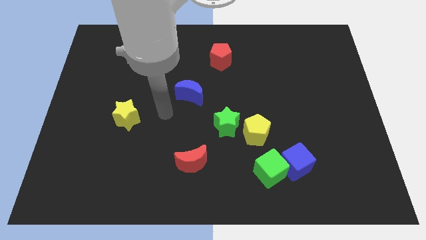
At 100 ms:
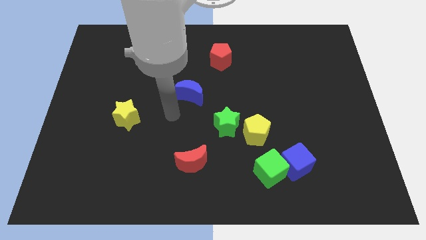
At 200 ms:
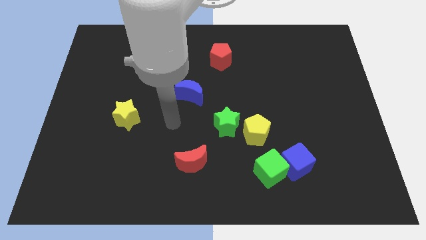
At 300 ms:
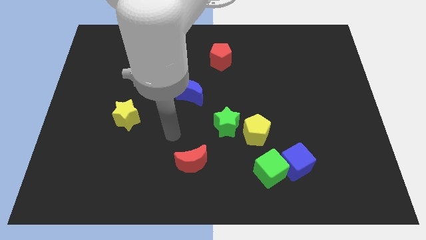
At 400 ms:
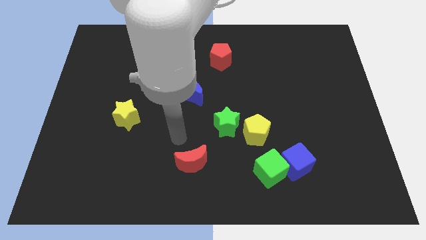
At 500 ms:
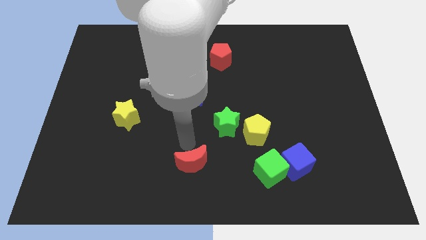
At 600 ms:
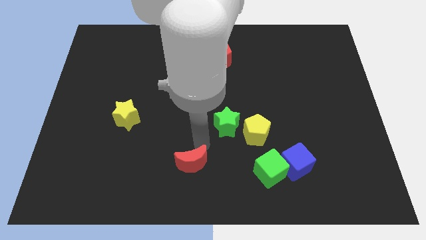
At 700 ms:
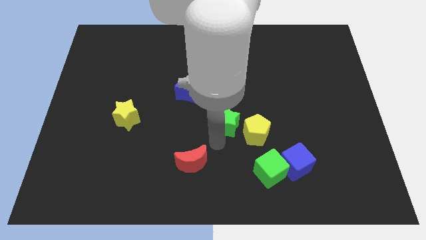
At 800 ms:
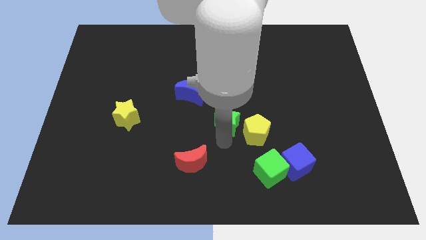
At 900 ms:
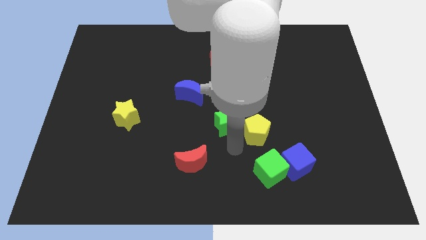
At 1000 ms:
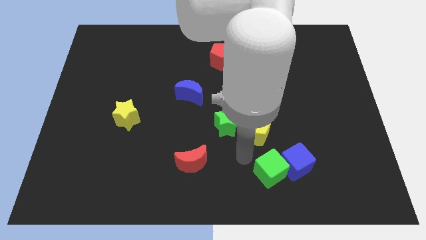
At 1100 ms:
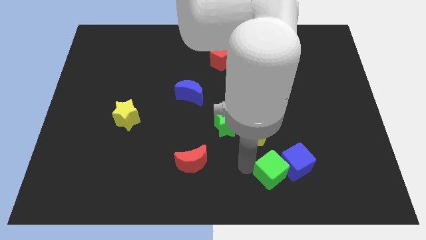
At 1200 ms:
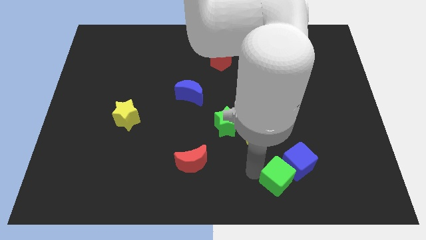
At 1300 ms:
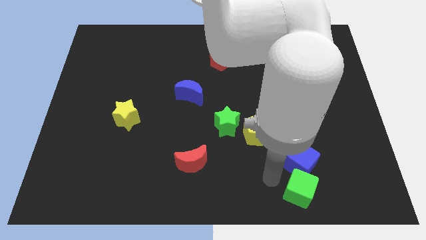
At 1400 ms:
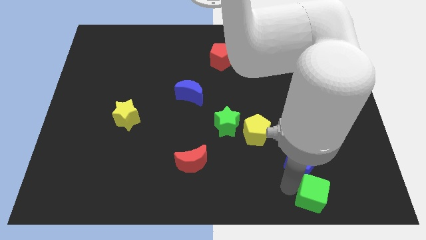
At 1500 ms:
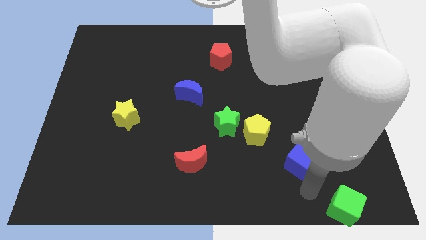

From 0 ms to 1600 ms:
pull the blue cube apart from the green cube

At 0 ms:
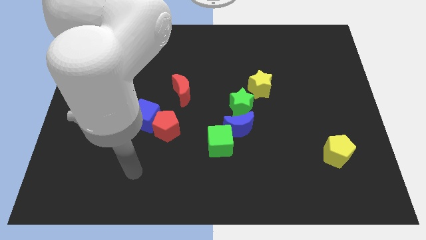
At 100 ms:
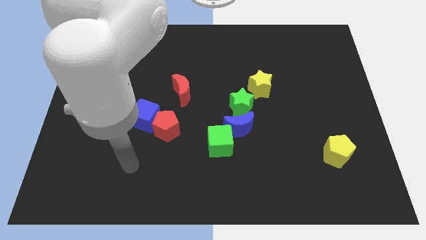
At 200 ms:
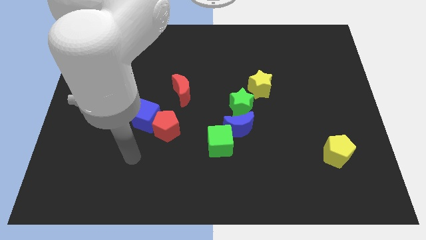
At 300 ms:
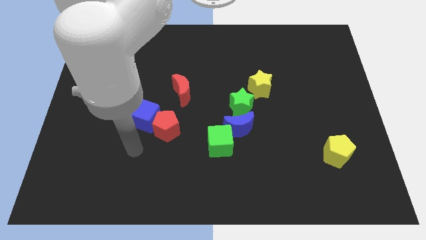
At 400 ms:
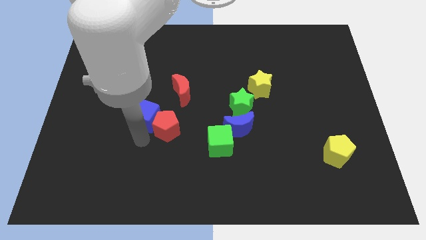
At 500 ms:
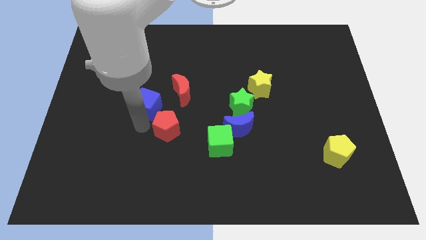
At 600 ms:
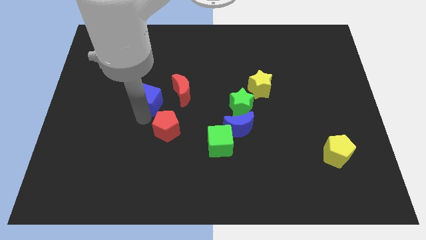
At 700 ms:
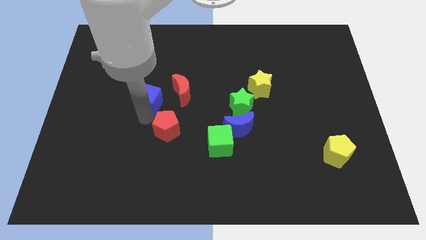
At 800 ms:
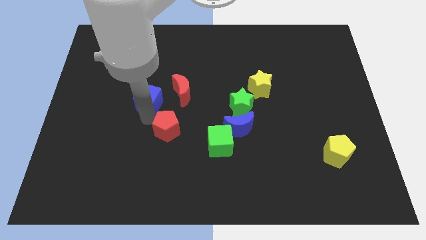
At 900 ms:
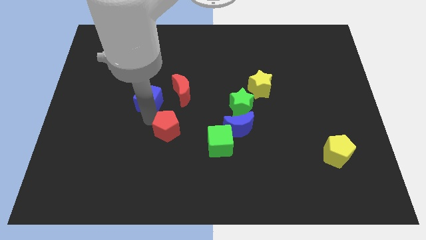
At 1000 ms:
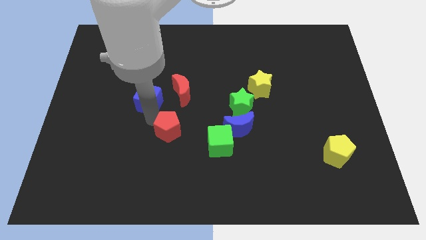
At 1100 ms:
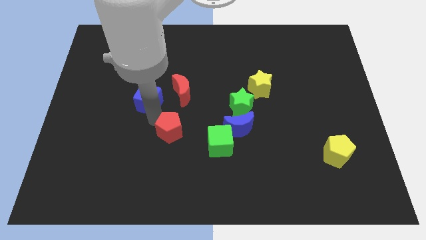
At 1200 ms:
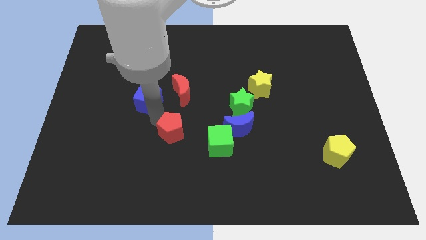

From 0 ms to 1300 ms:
pull the red pentagon apart from the blue cube

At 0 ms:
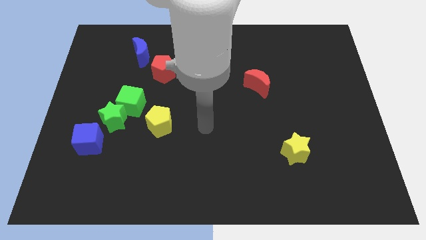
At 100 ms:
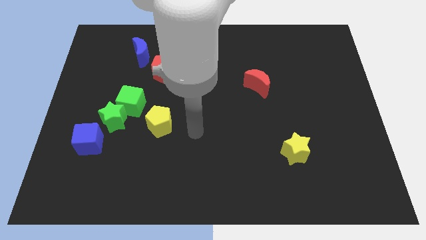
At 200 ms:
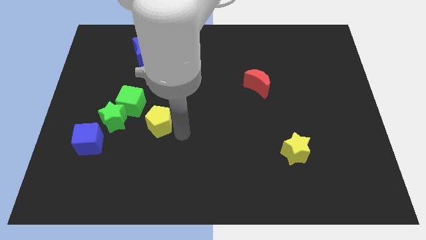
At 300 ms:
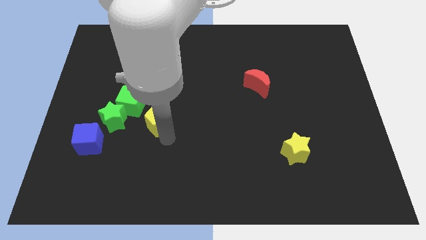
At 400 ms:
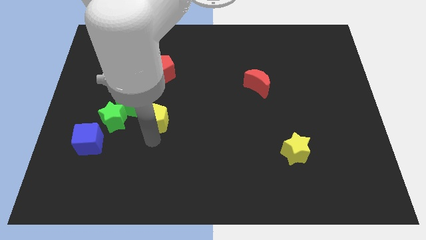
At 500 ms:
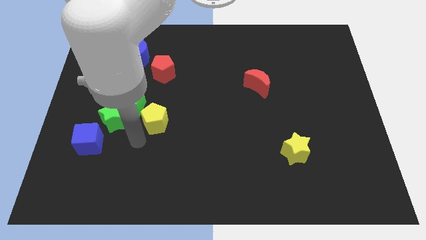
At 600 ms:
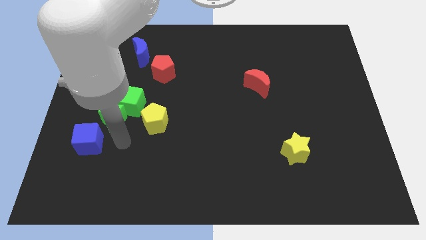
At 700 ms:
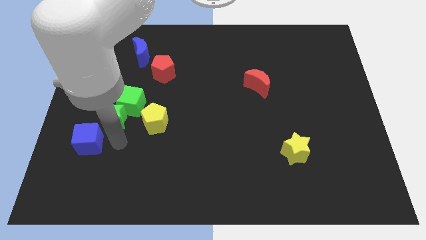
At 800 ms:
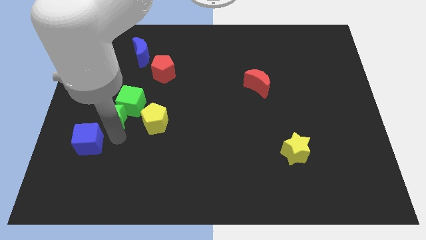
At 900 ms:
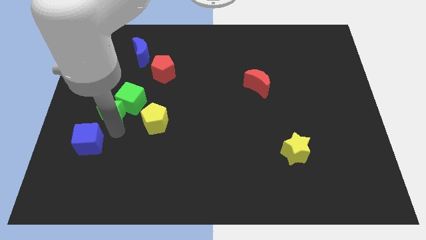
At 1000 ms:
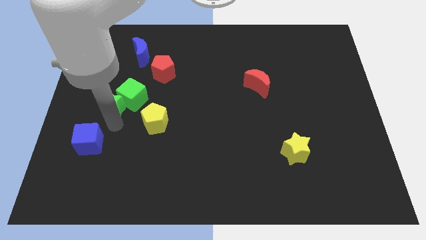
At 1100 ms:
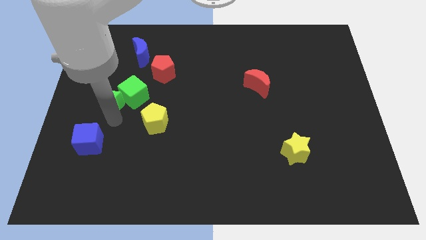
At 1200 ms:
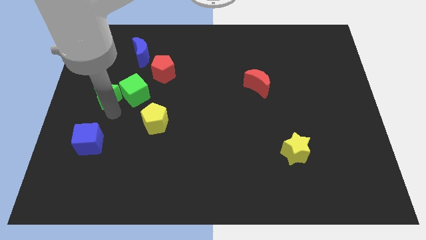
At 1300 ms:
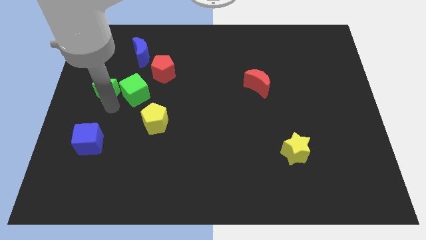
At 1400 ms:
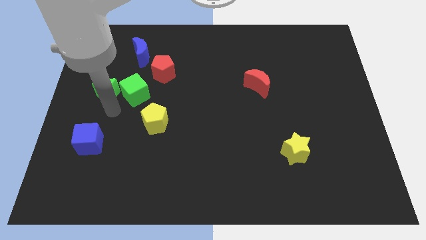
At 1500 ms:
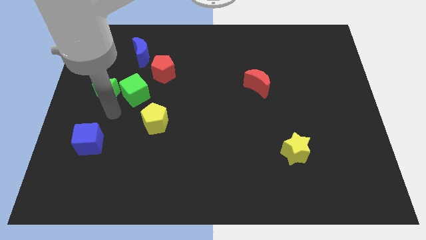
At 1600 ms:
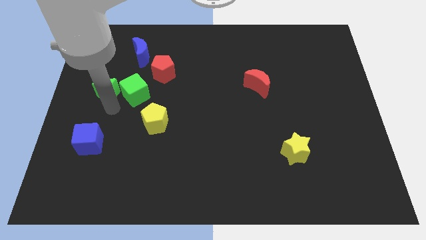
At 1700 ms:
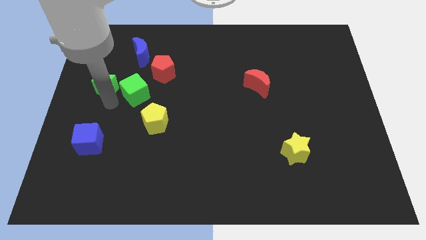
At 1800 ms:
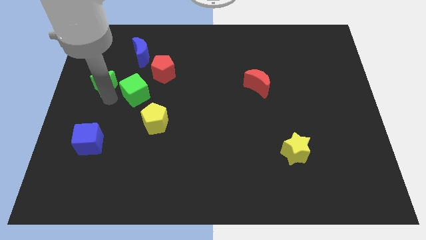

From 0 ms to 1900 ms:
move the green star away from the green cube and blue cube

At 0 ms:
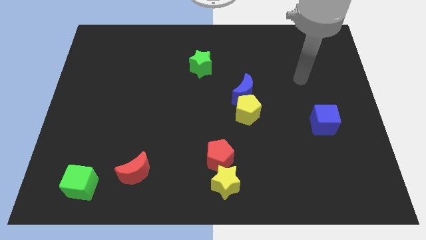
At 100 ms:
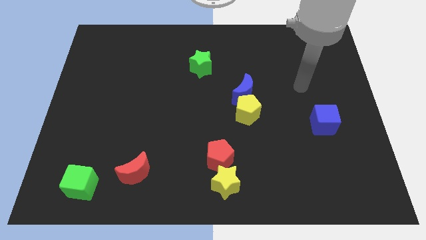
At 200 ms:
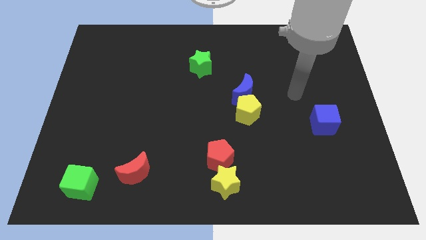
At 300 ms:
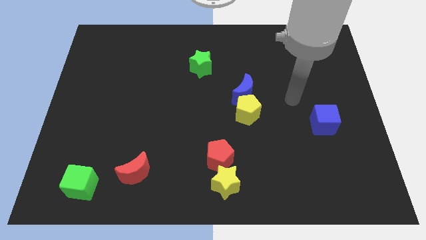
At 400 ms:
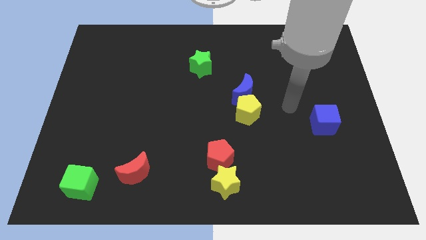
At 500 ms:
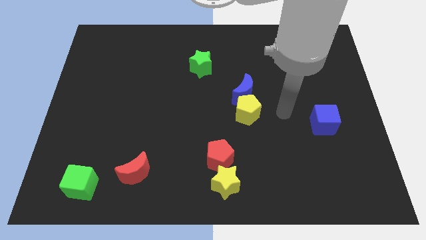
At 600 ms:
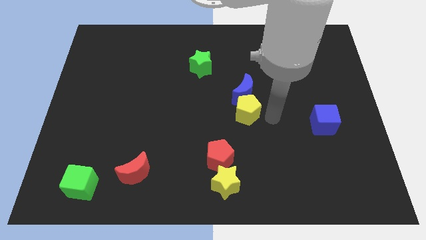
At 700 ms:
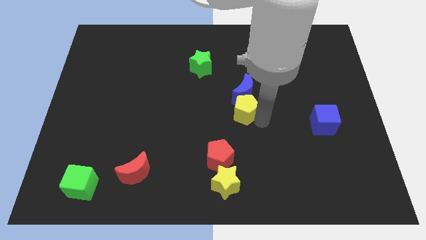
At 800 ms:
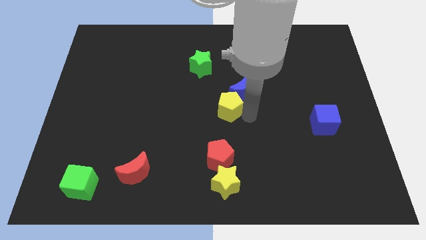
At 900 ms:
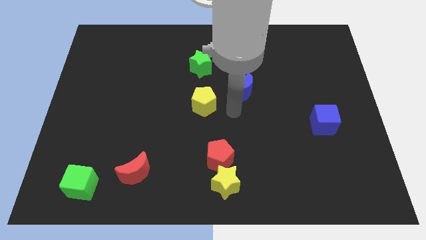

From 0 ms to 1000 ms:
separate the blue moon from the yellow pentagon

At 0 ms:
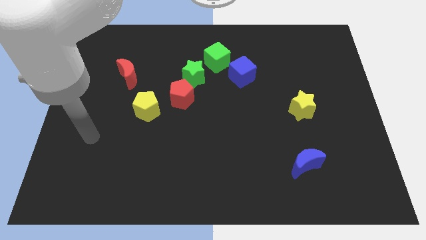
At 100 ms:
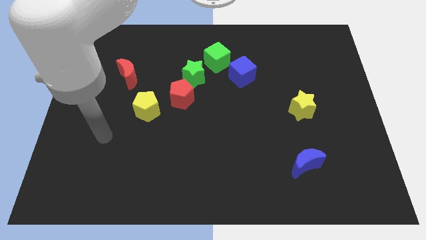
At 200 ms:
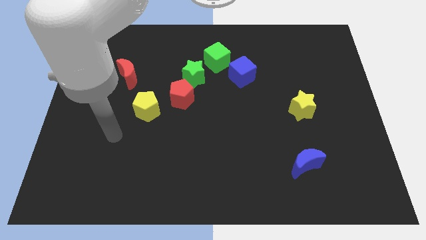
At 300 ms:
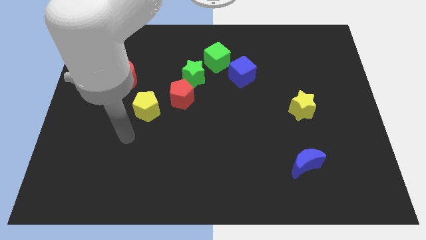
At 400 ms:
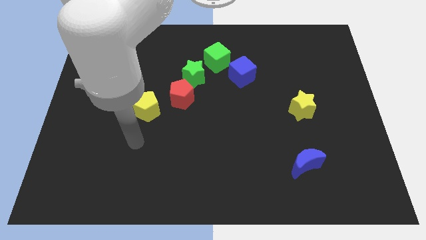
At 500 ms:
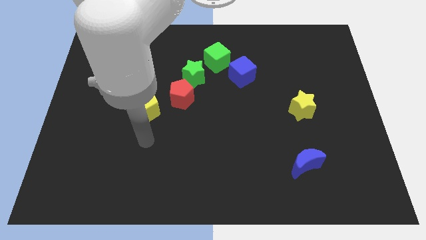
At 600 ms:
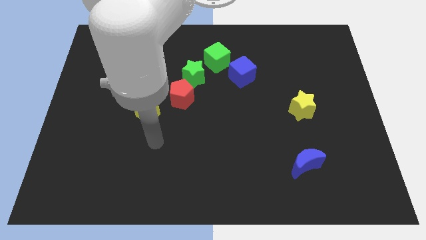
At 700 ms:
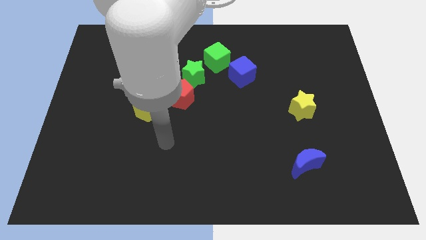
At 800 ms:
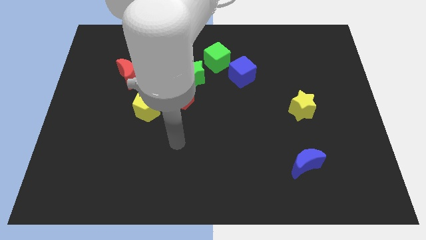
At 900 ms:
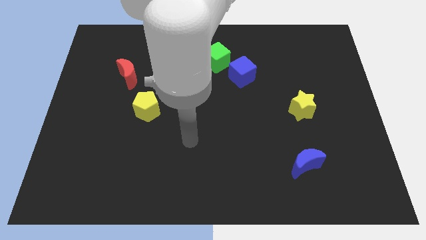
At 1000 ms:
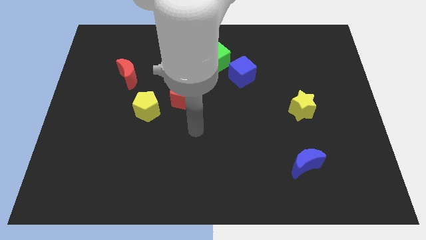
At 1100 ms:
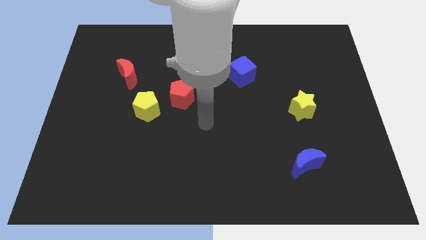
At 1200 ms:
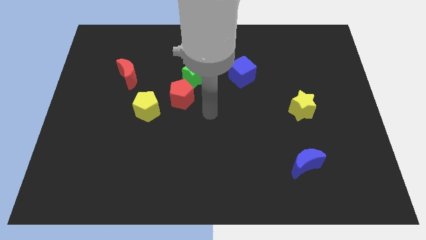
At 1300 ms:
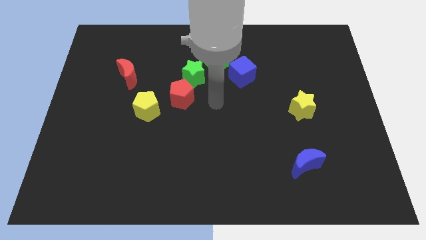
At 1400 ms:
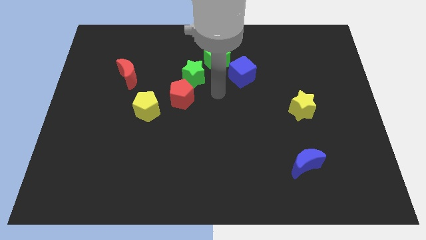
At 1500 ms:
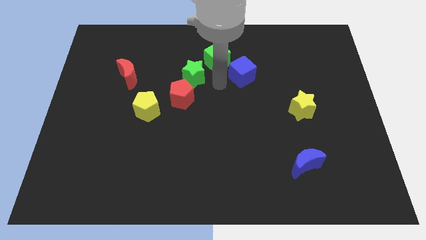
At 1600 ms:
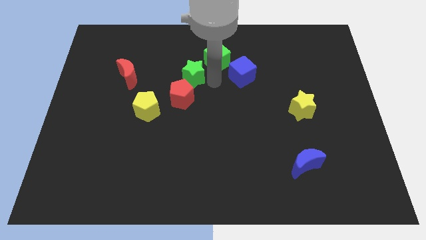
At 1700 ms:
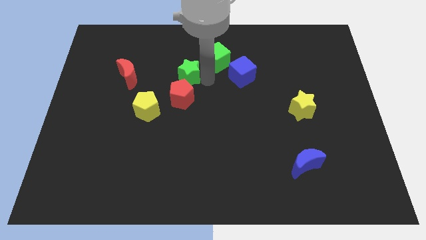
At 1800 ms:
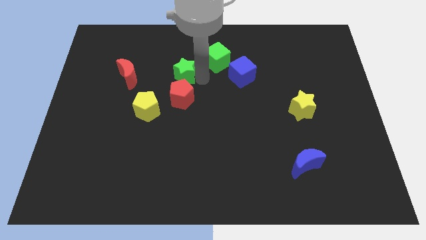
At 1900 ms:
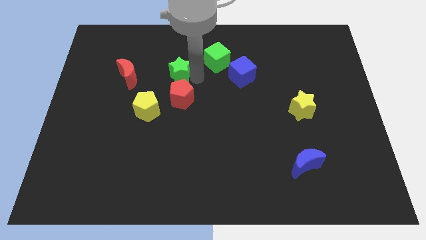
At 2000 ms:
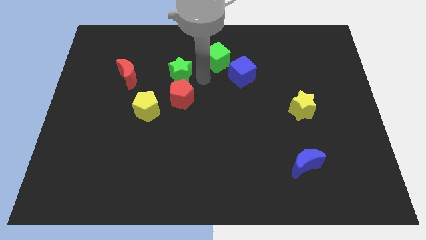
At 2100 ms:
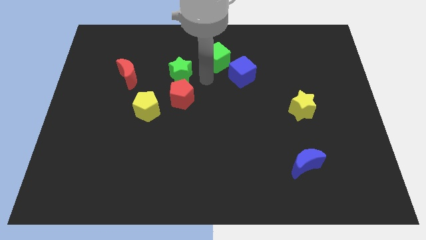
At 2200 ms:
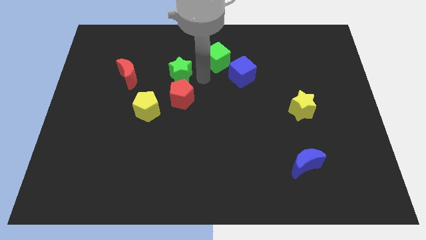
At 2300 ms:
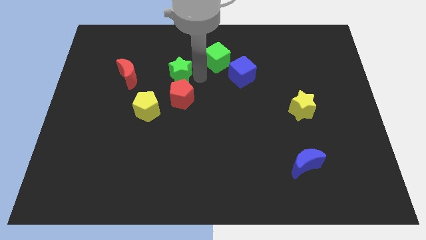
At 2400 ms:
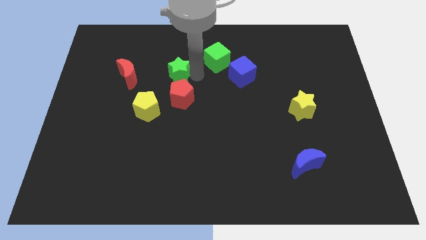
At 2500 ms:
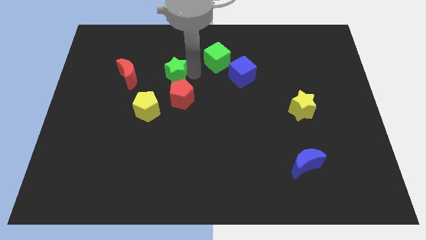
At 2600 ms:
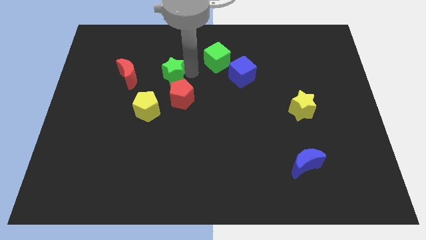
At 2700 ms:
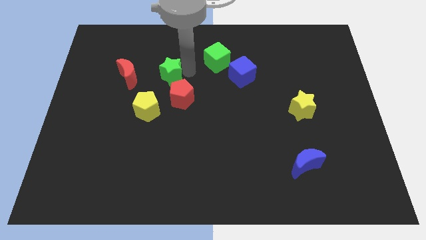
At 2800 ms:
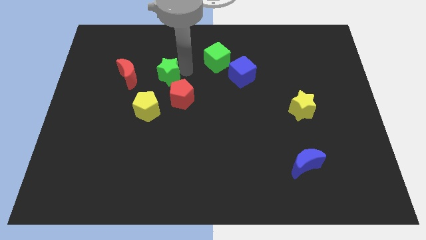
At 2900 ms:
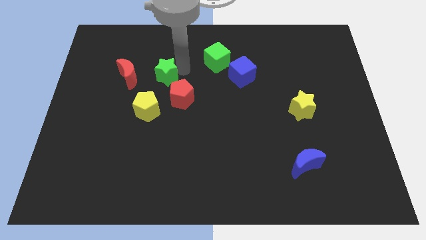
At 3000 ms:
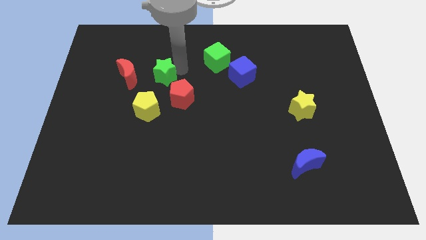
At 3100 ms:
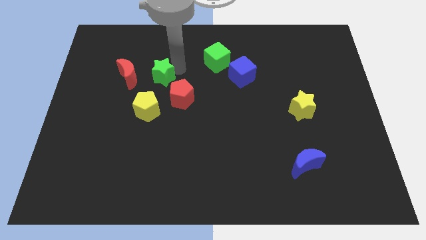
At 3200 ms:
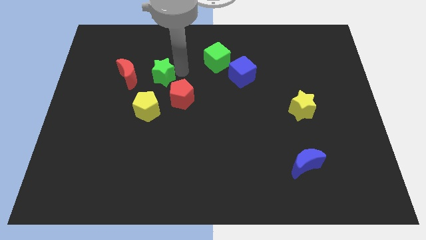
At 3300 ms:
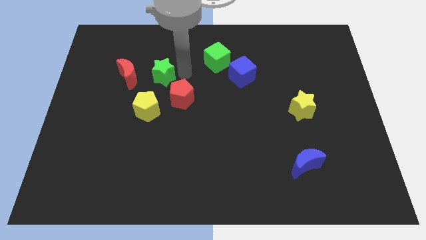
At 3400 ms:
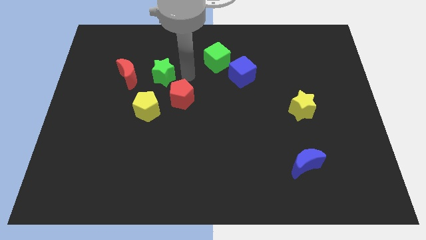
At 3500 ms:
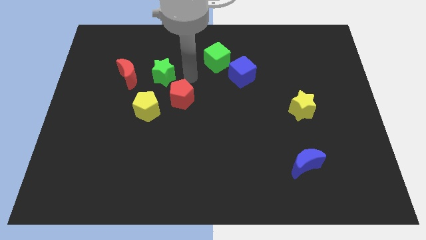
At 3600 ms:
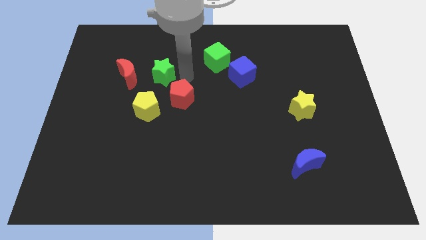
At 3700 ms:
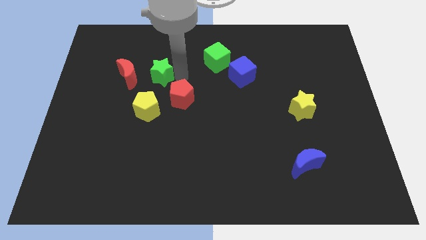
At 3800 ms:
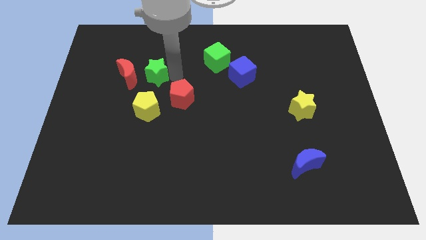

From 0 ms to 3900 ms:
pull the green star apart from the red pentagon and green cube
